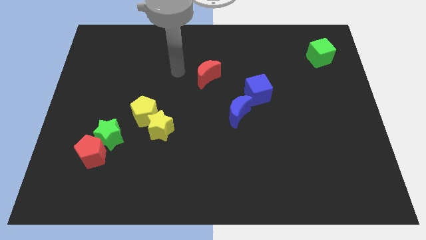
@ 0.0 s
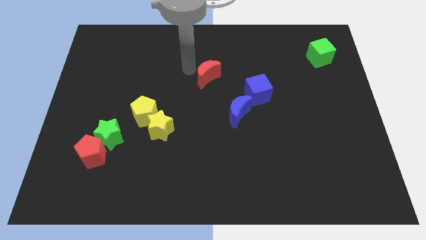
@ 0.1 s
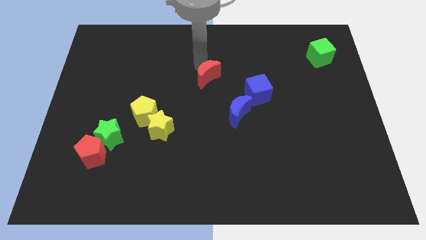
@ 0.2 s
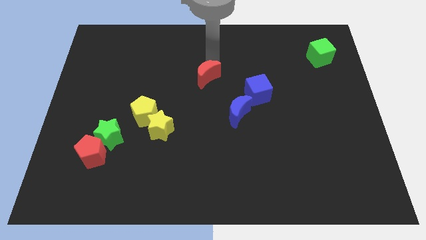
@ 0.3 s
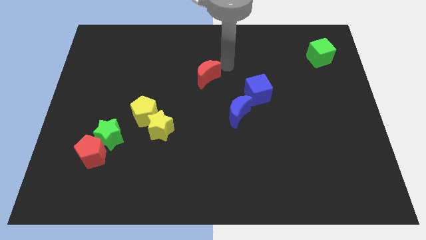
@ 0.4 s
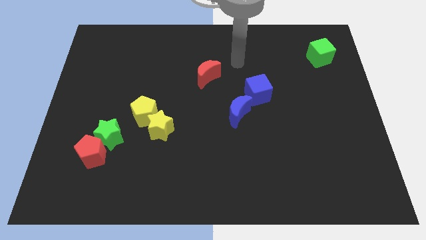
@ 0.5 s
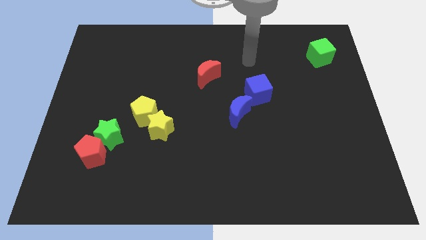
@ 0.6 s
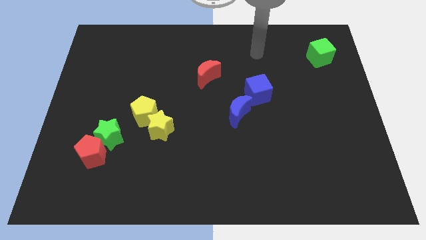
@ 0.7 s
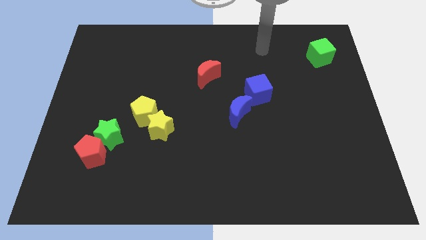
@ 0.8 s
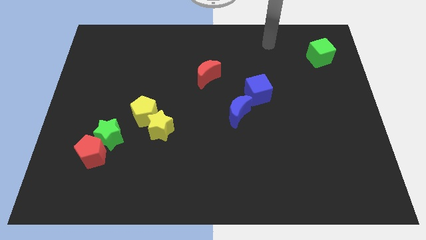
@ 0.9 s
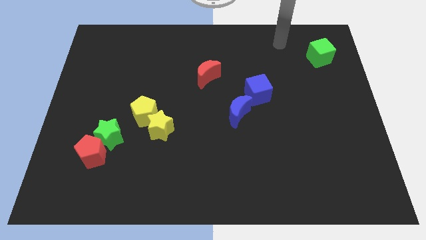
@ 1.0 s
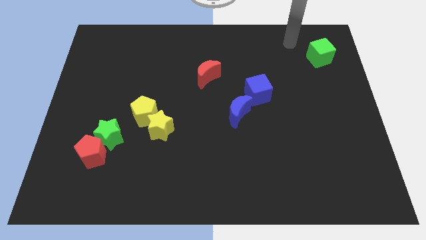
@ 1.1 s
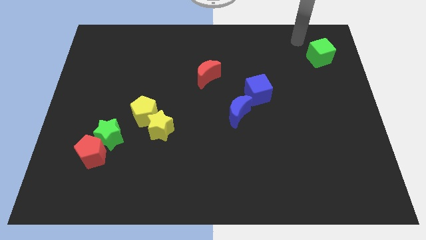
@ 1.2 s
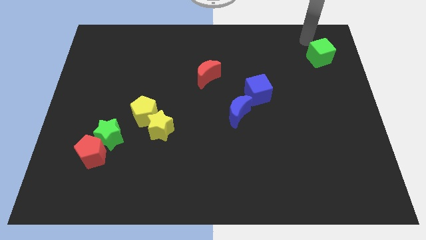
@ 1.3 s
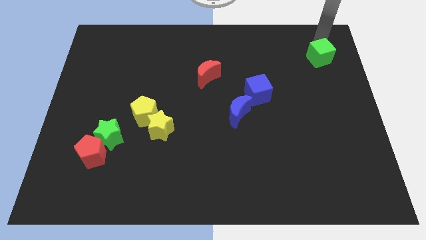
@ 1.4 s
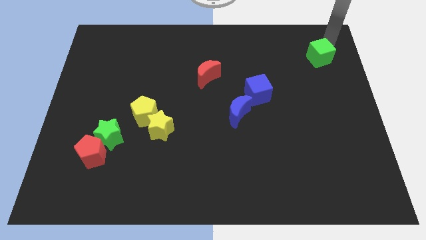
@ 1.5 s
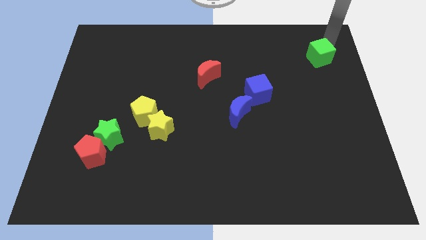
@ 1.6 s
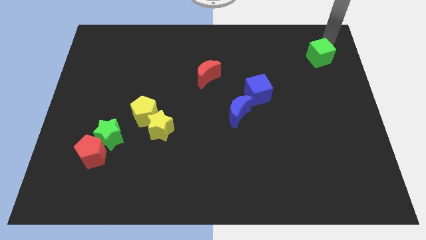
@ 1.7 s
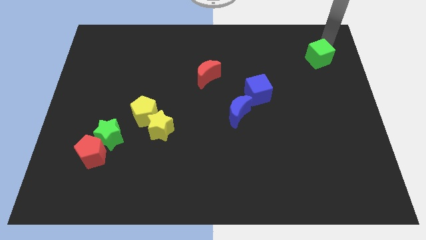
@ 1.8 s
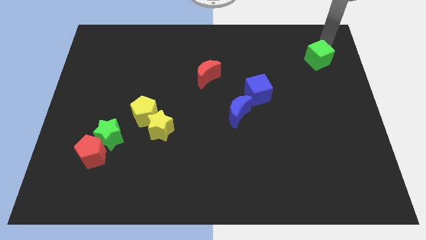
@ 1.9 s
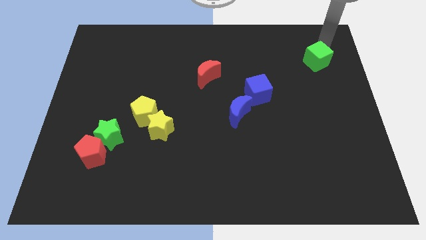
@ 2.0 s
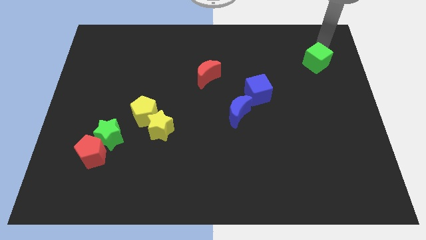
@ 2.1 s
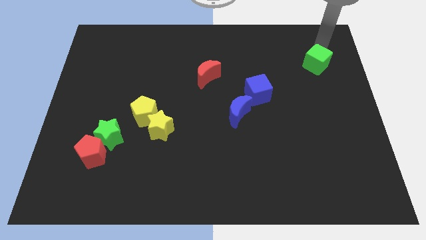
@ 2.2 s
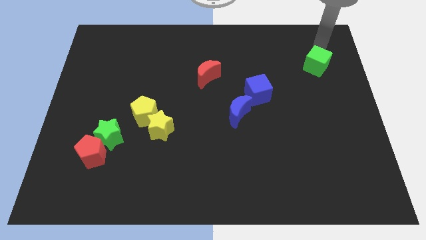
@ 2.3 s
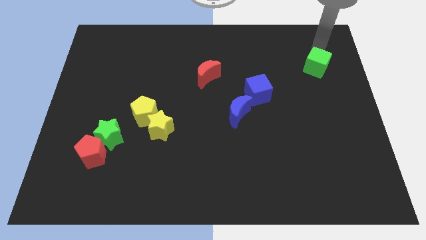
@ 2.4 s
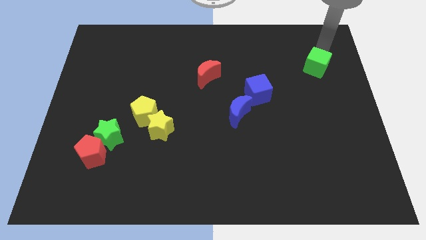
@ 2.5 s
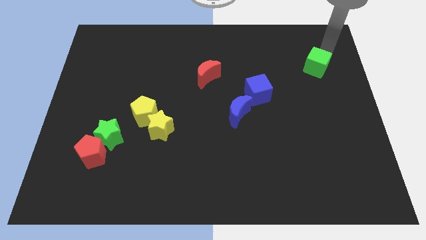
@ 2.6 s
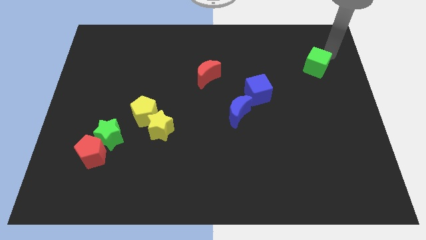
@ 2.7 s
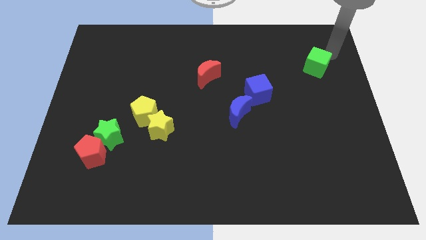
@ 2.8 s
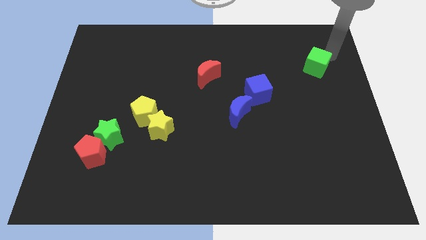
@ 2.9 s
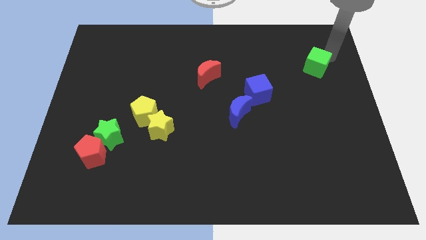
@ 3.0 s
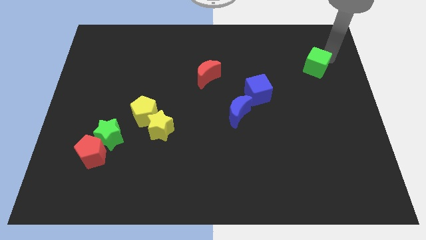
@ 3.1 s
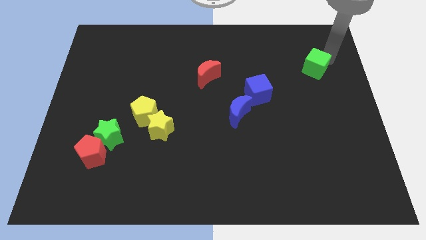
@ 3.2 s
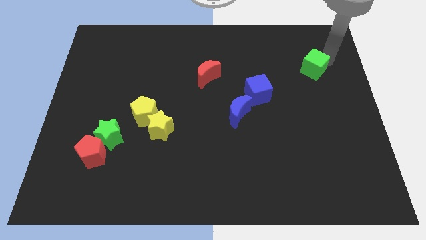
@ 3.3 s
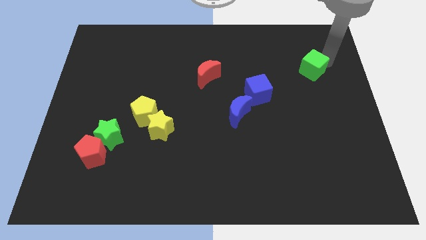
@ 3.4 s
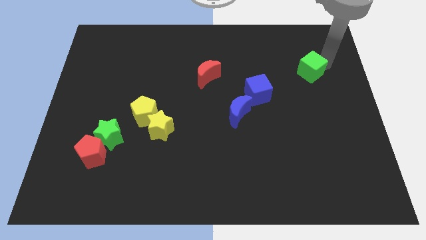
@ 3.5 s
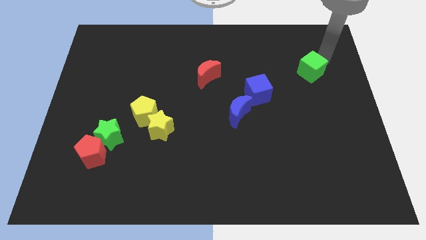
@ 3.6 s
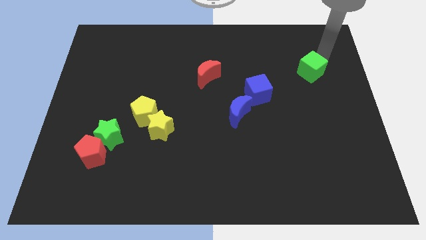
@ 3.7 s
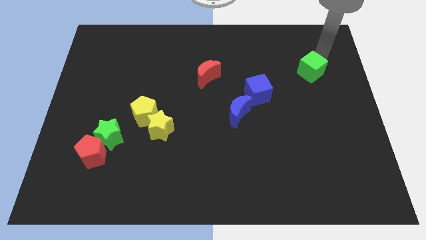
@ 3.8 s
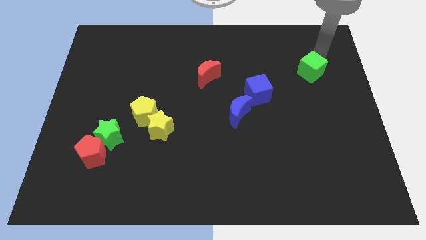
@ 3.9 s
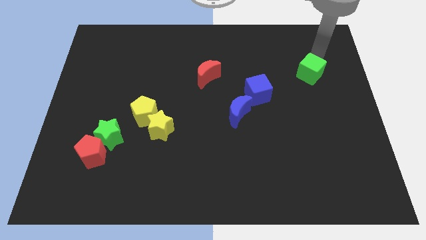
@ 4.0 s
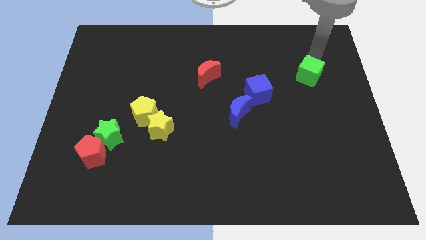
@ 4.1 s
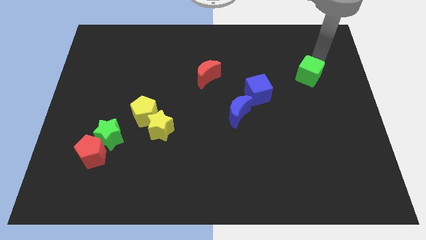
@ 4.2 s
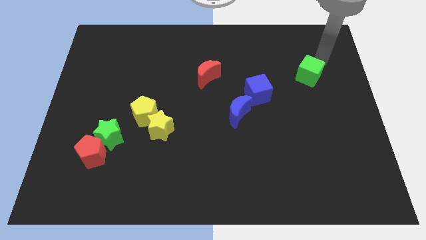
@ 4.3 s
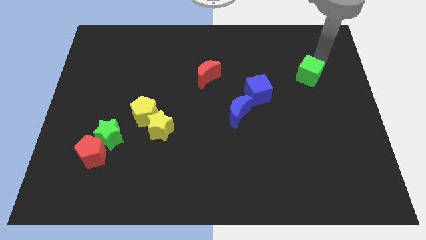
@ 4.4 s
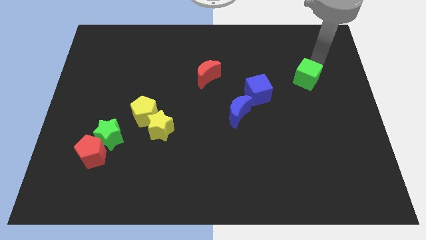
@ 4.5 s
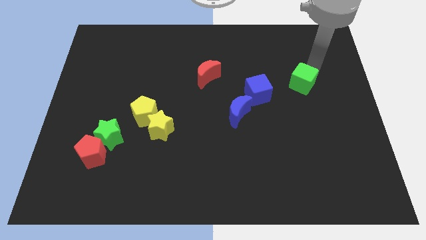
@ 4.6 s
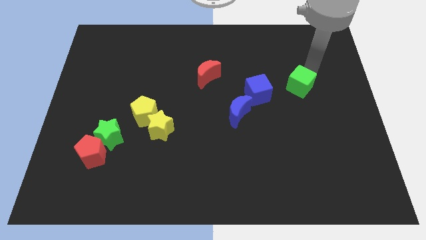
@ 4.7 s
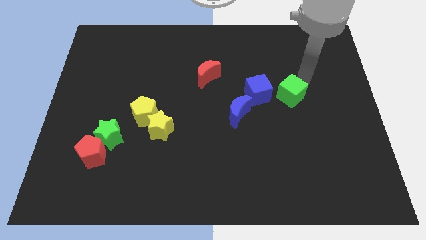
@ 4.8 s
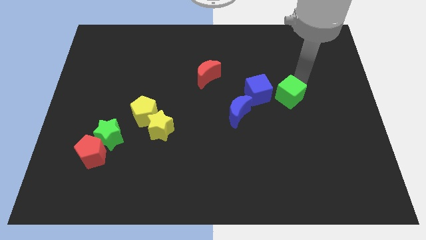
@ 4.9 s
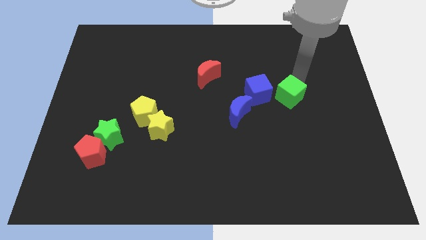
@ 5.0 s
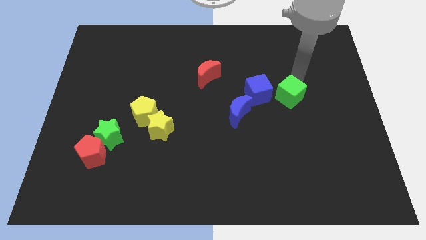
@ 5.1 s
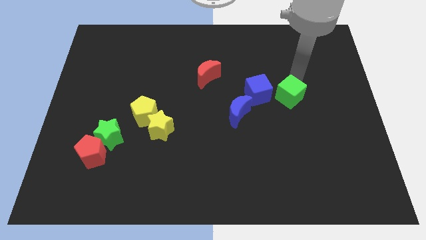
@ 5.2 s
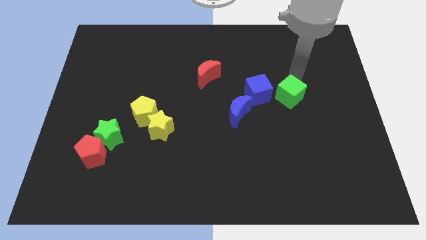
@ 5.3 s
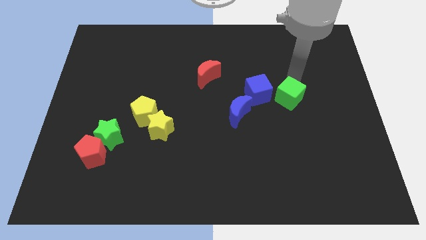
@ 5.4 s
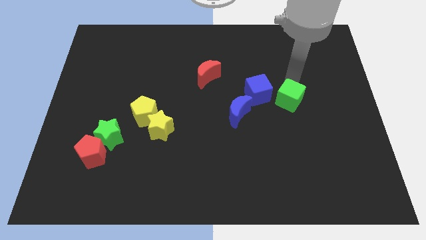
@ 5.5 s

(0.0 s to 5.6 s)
slide the green cube to the right side of the blue moon

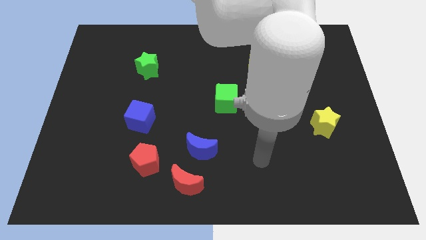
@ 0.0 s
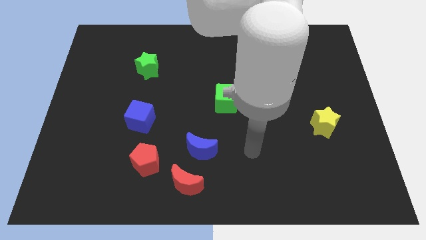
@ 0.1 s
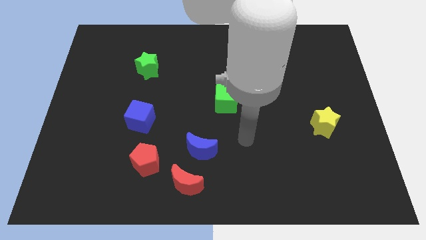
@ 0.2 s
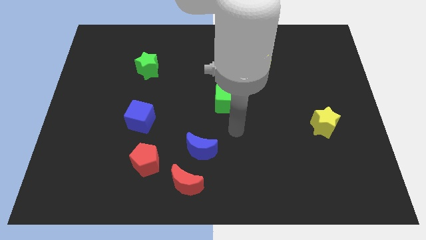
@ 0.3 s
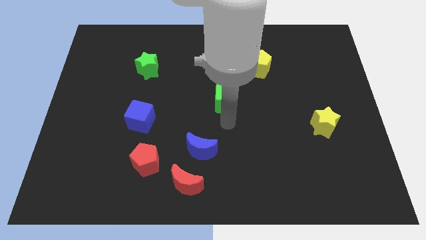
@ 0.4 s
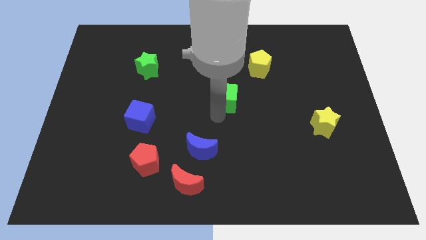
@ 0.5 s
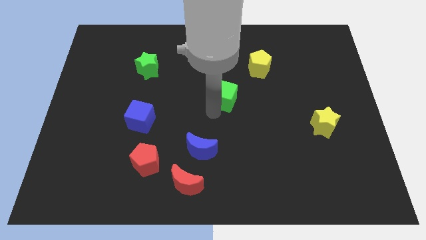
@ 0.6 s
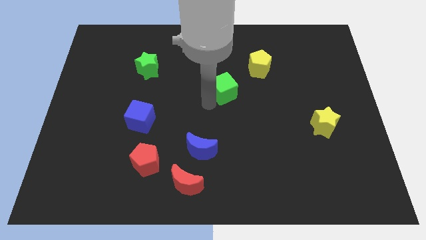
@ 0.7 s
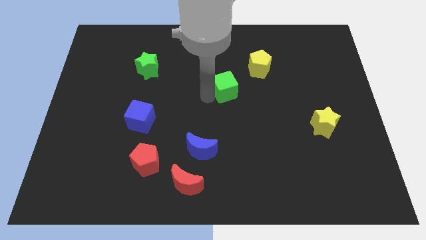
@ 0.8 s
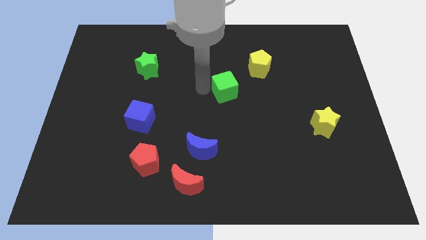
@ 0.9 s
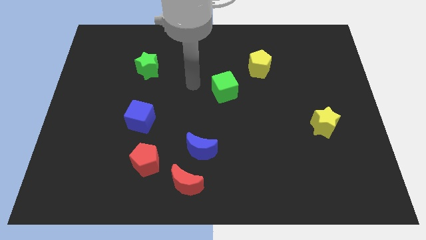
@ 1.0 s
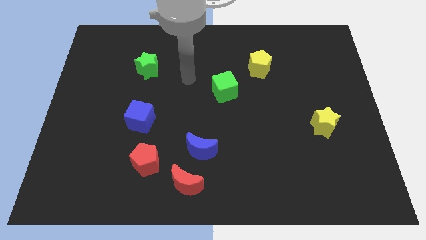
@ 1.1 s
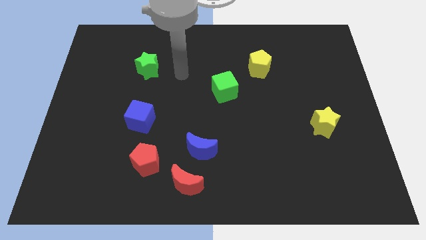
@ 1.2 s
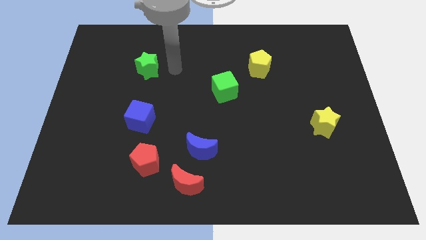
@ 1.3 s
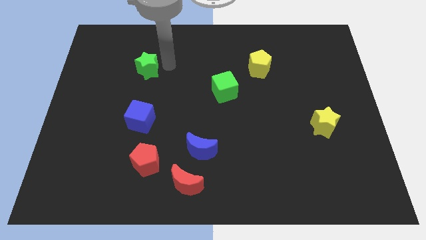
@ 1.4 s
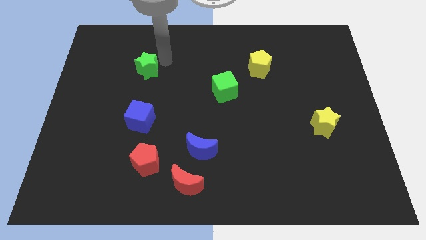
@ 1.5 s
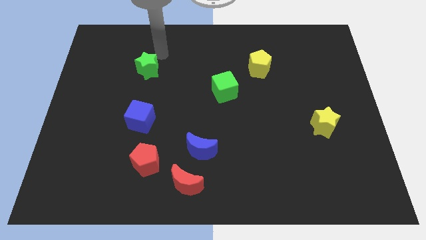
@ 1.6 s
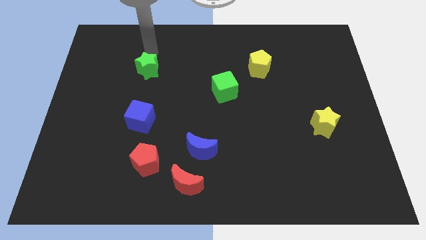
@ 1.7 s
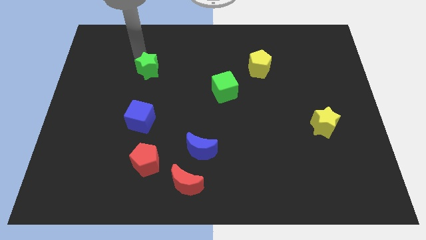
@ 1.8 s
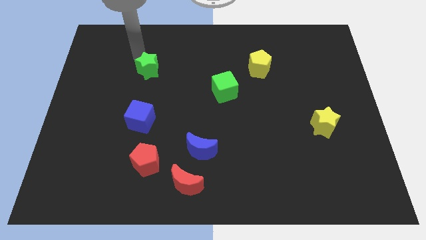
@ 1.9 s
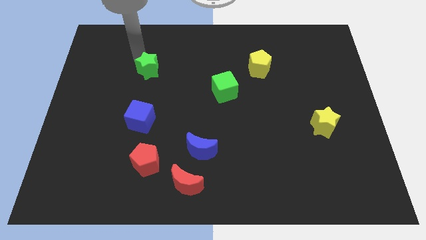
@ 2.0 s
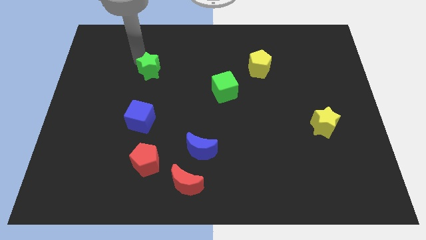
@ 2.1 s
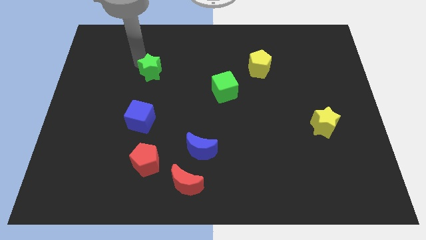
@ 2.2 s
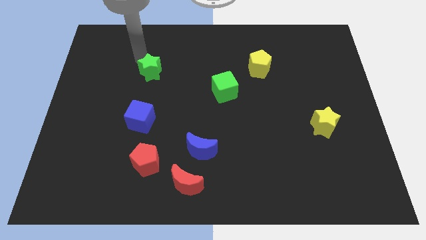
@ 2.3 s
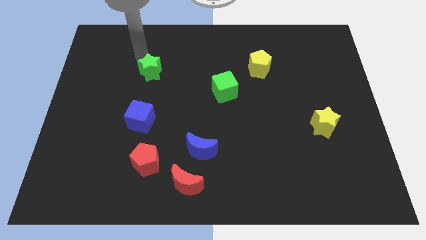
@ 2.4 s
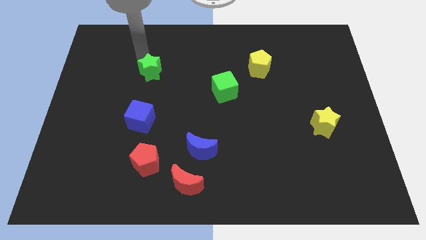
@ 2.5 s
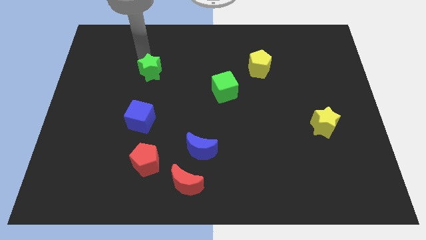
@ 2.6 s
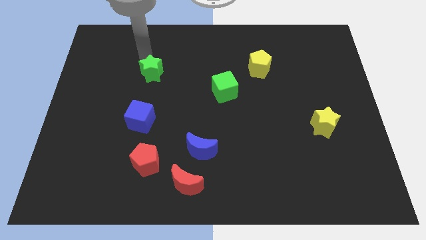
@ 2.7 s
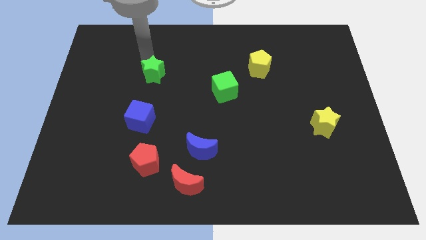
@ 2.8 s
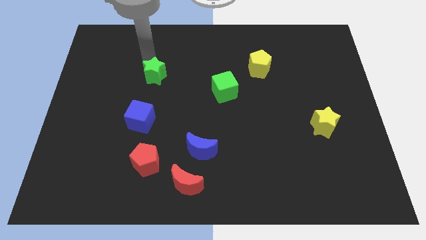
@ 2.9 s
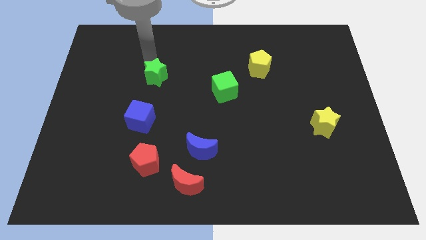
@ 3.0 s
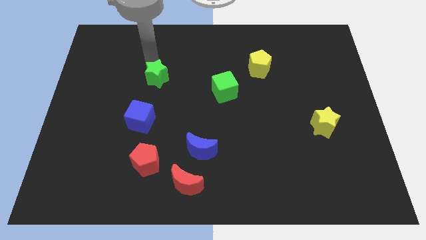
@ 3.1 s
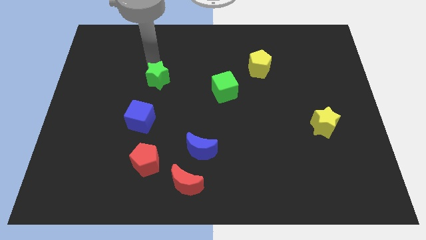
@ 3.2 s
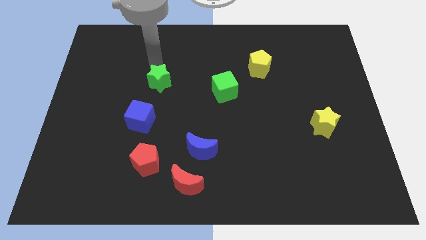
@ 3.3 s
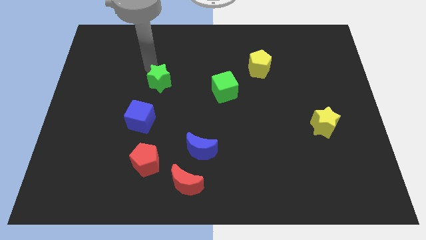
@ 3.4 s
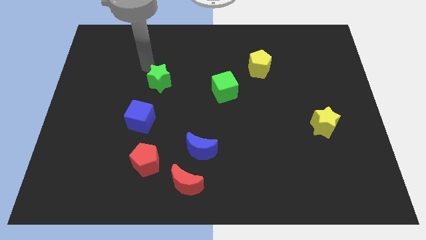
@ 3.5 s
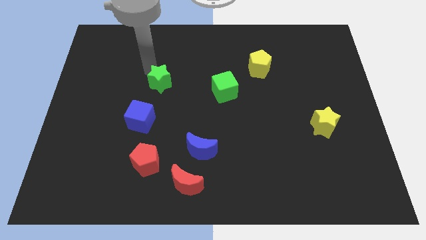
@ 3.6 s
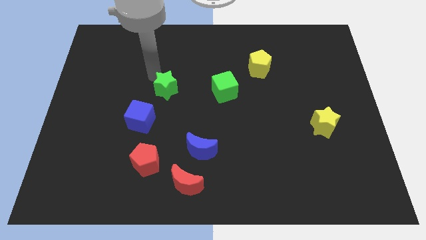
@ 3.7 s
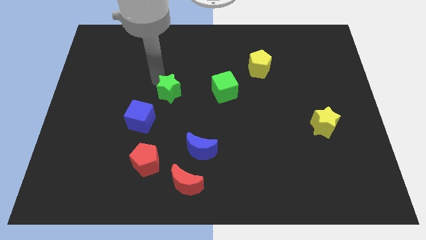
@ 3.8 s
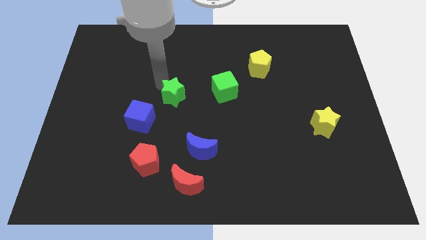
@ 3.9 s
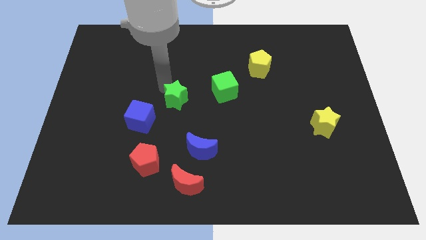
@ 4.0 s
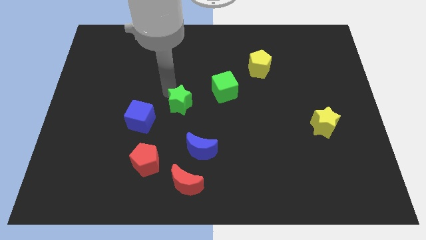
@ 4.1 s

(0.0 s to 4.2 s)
push the green star to the right side of the blue cube
